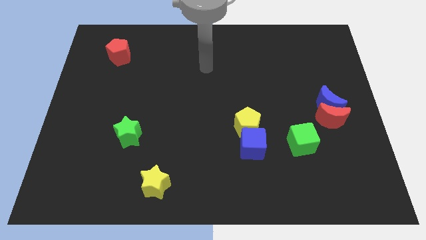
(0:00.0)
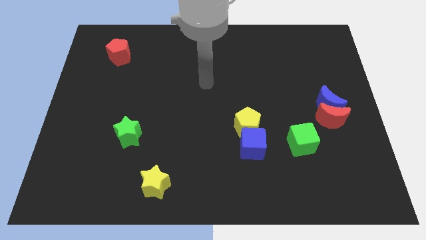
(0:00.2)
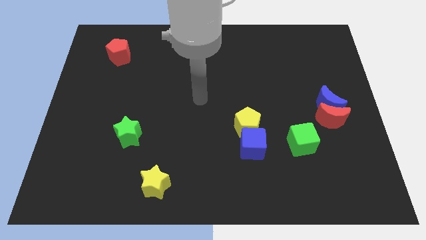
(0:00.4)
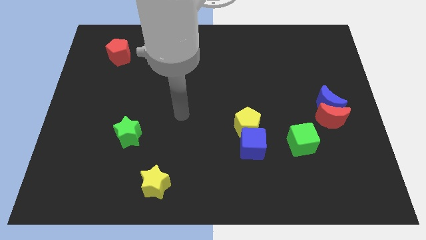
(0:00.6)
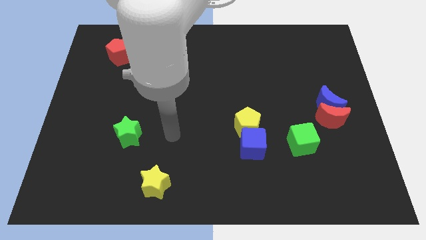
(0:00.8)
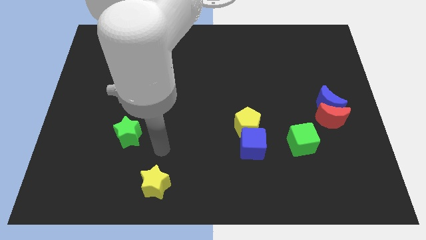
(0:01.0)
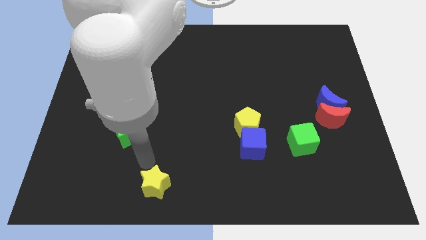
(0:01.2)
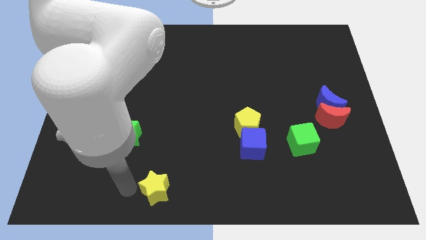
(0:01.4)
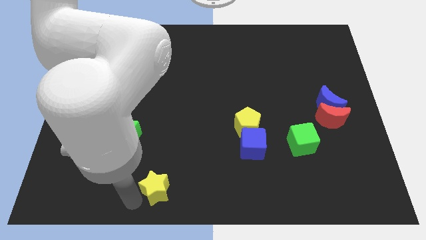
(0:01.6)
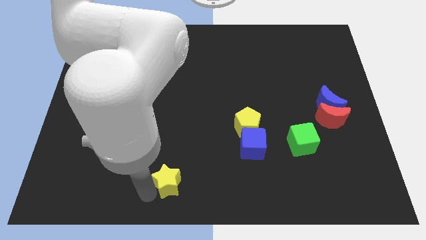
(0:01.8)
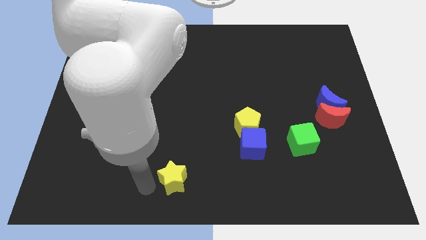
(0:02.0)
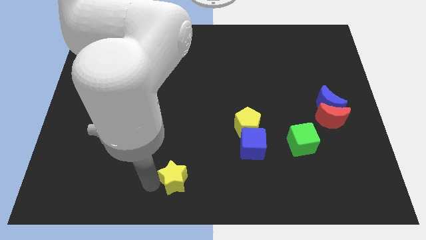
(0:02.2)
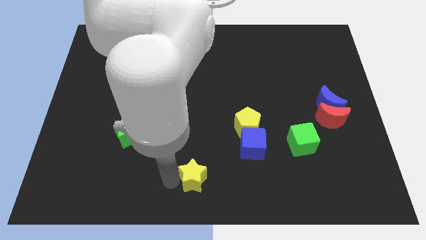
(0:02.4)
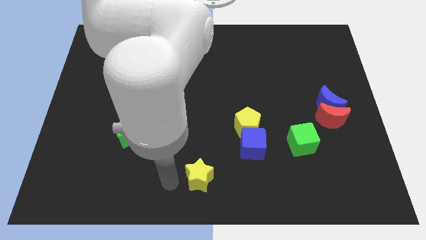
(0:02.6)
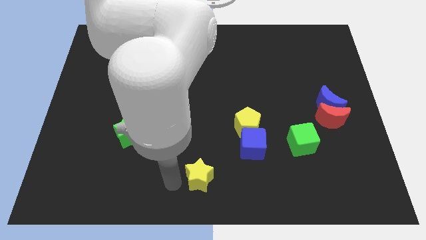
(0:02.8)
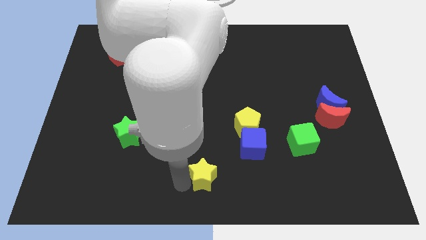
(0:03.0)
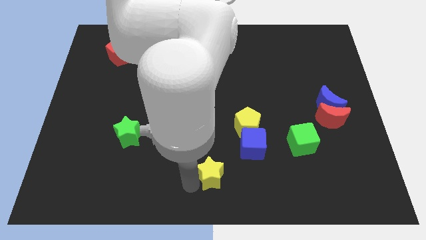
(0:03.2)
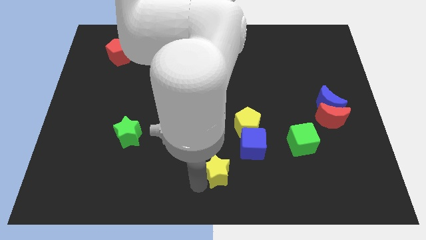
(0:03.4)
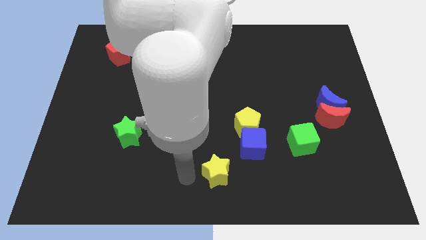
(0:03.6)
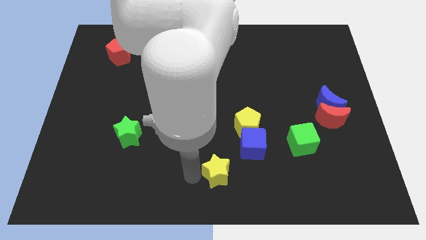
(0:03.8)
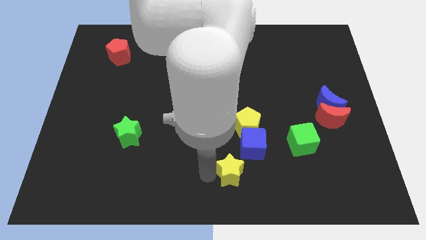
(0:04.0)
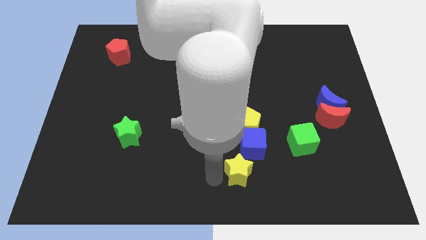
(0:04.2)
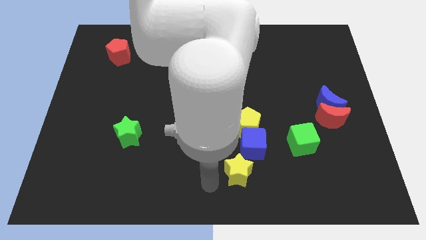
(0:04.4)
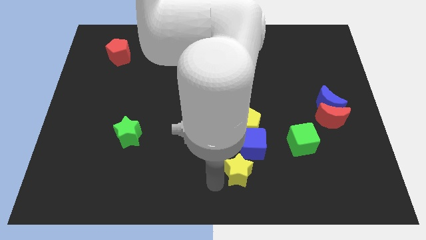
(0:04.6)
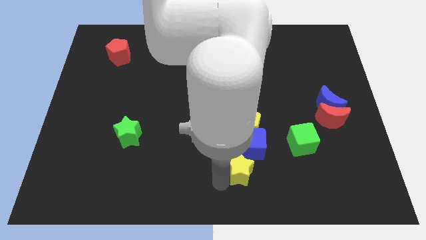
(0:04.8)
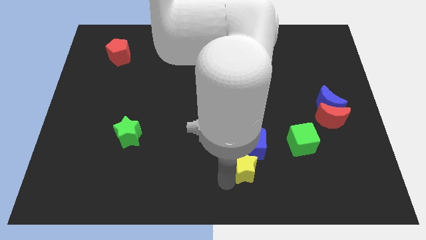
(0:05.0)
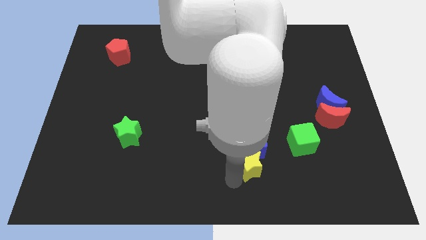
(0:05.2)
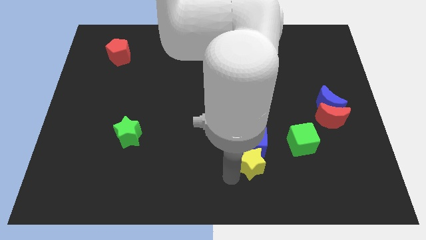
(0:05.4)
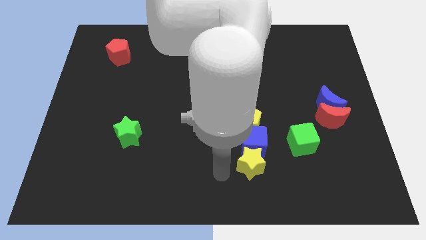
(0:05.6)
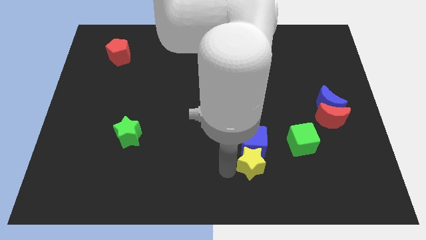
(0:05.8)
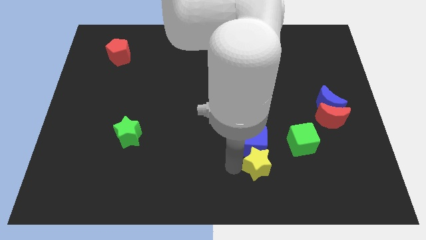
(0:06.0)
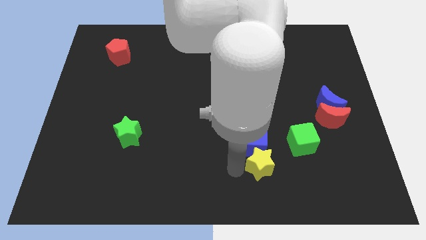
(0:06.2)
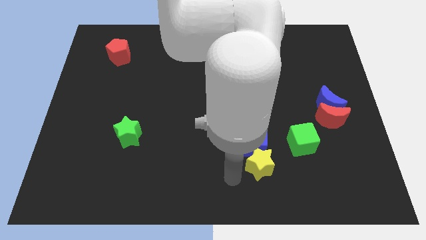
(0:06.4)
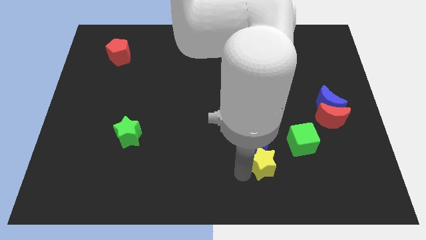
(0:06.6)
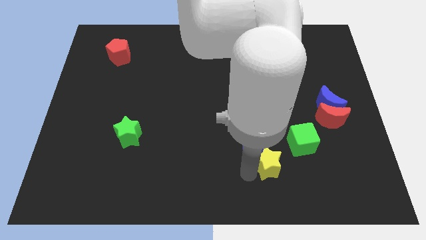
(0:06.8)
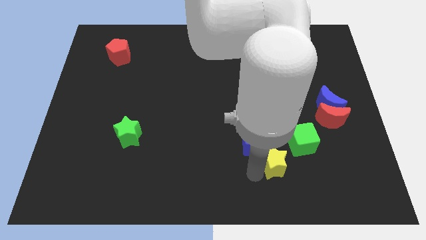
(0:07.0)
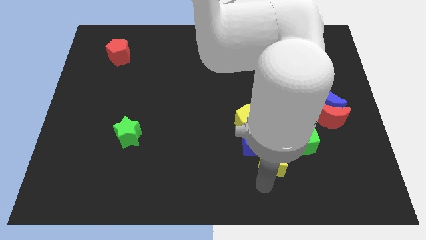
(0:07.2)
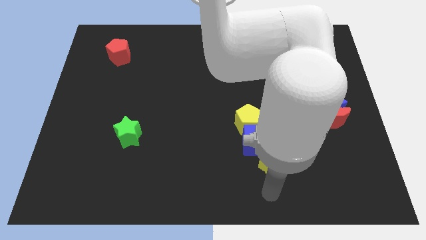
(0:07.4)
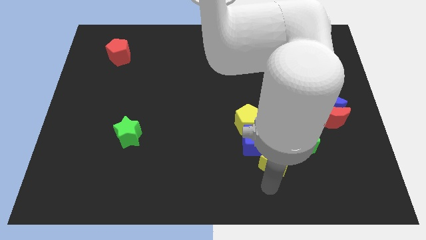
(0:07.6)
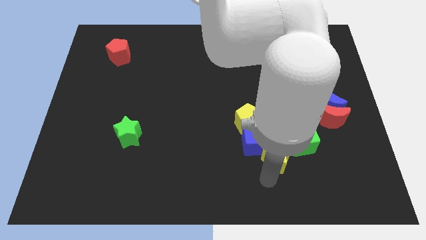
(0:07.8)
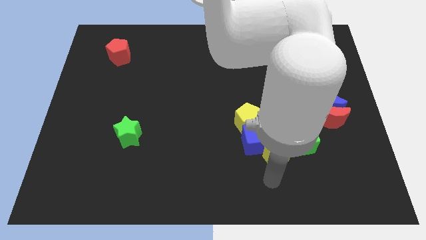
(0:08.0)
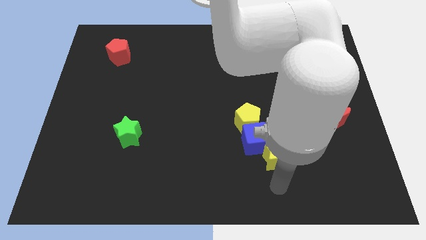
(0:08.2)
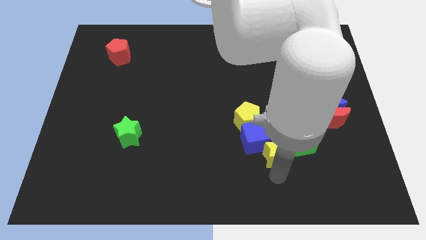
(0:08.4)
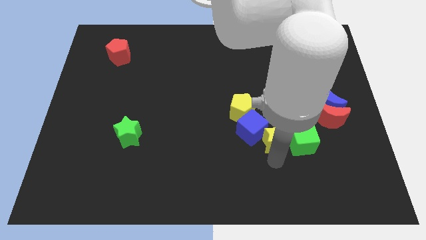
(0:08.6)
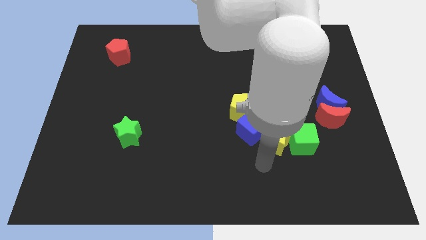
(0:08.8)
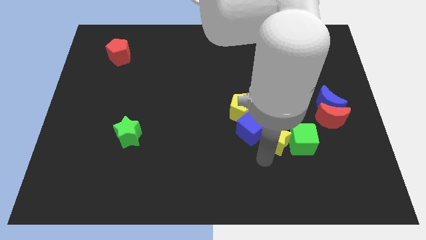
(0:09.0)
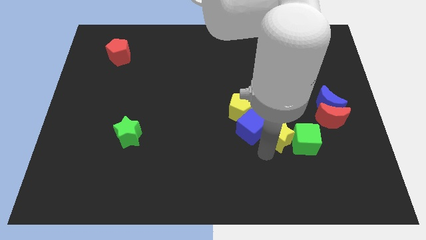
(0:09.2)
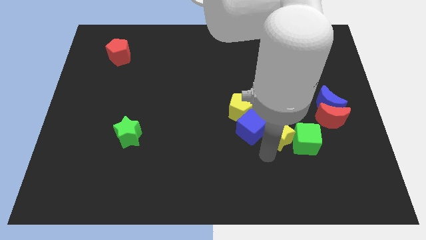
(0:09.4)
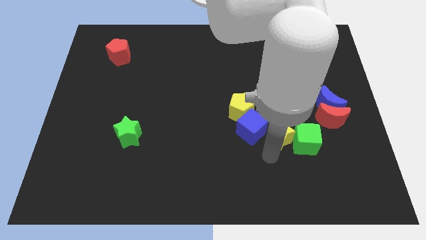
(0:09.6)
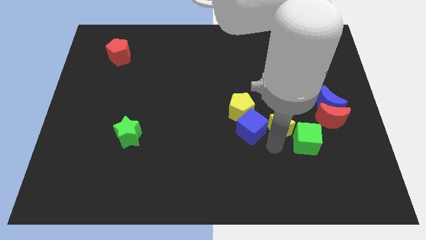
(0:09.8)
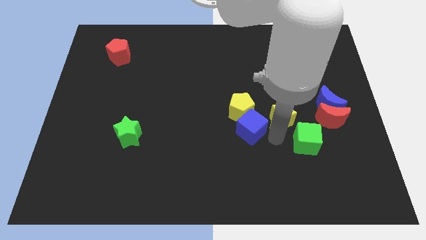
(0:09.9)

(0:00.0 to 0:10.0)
push the yellow star above the green cube

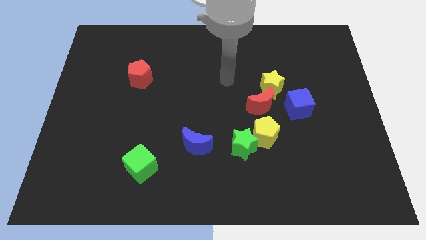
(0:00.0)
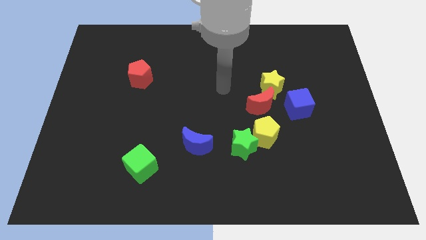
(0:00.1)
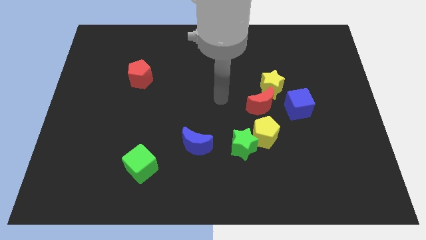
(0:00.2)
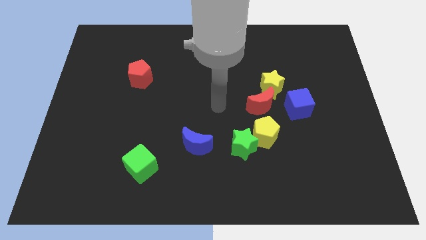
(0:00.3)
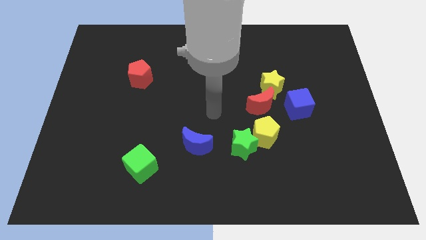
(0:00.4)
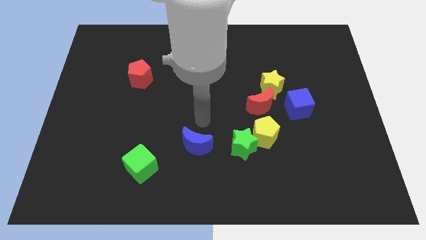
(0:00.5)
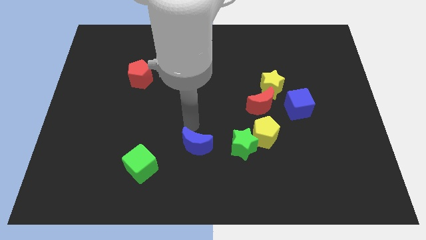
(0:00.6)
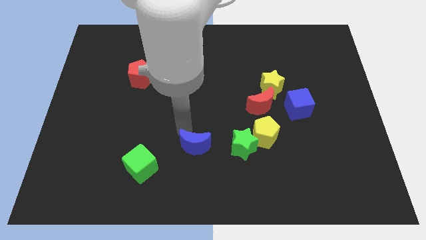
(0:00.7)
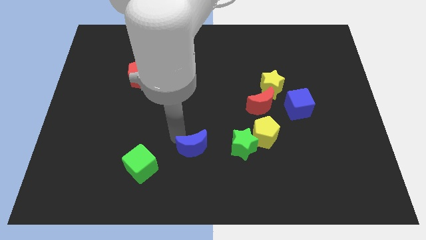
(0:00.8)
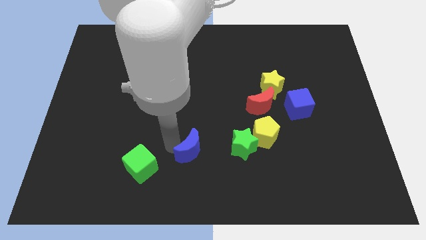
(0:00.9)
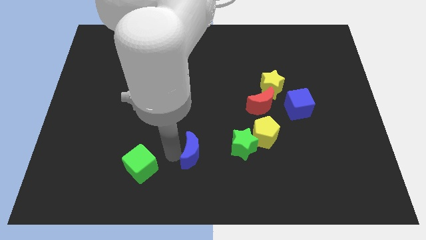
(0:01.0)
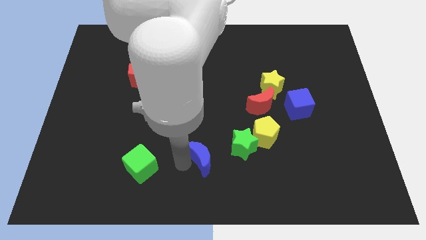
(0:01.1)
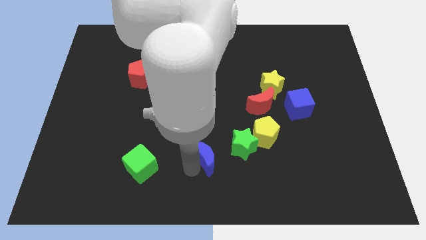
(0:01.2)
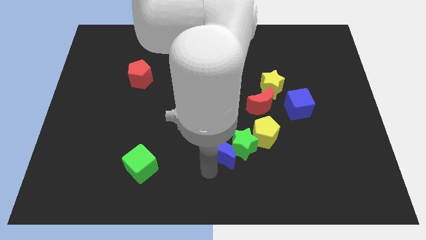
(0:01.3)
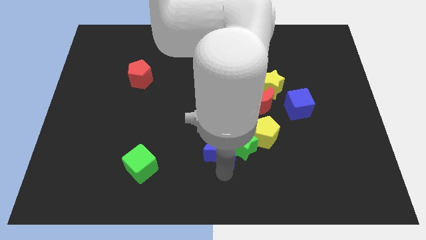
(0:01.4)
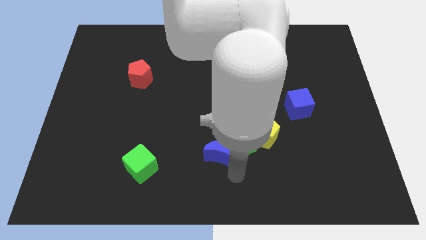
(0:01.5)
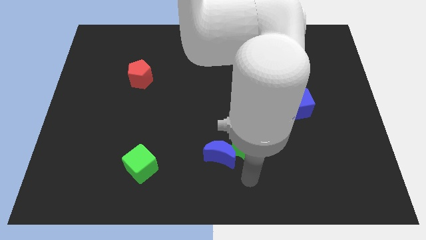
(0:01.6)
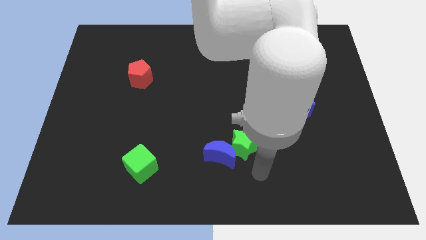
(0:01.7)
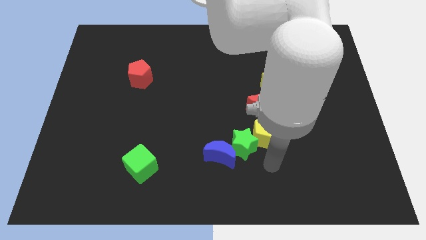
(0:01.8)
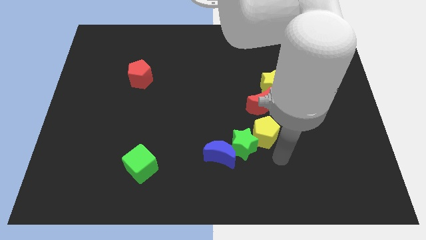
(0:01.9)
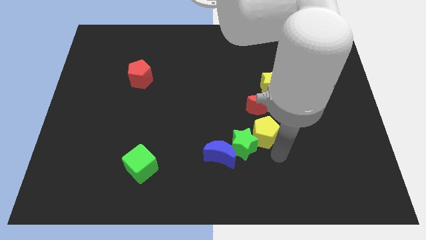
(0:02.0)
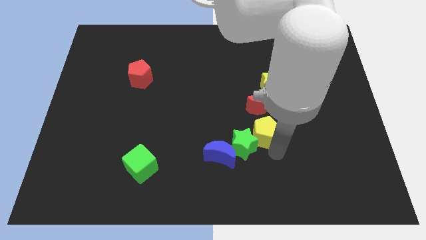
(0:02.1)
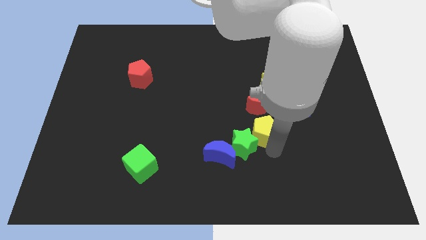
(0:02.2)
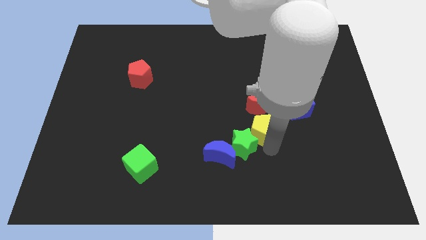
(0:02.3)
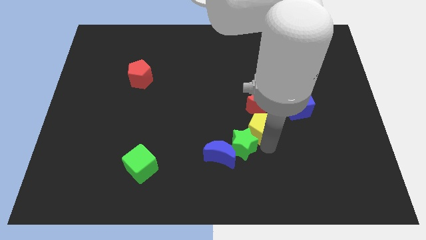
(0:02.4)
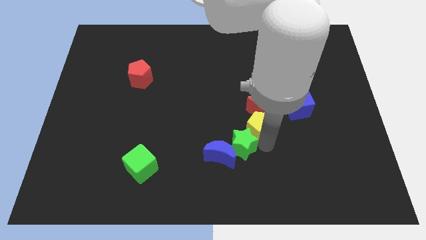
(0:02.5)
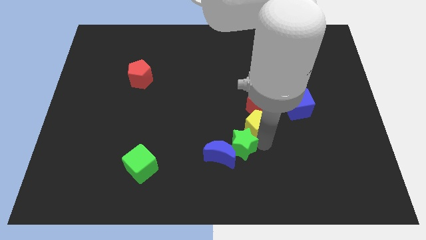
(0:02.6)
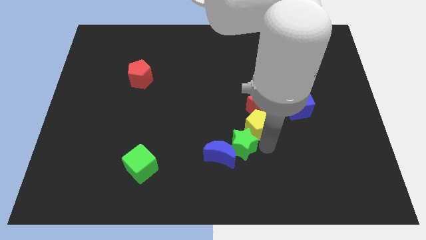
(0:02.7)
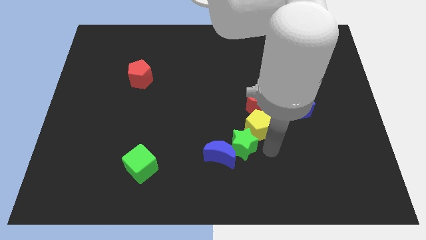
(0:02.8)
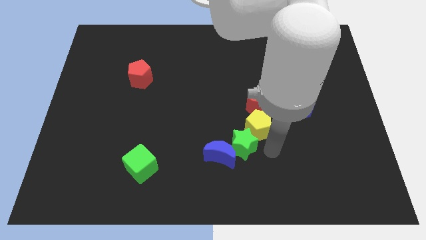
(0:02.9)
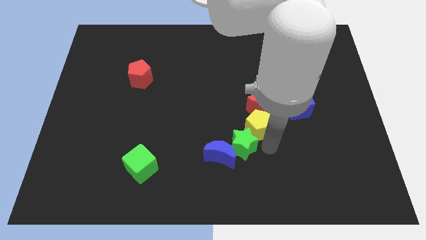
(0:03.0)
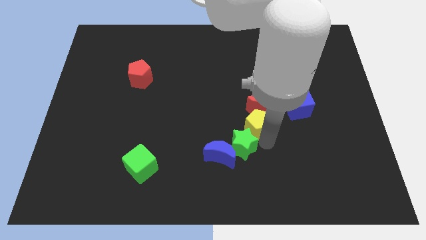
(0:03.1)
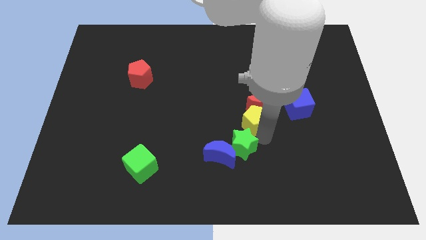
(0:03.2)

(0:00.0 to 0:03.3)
push the yellow pentagon just left of the blue cube
